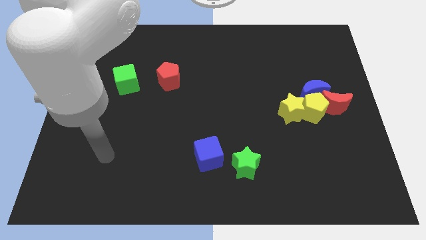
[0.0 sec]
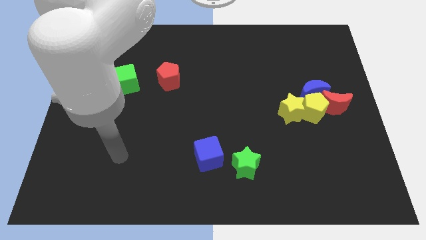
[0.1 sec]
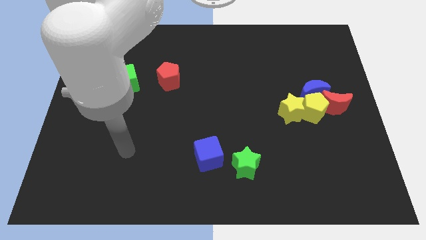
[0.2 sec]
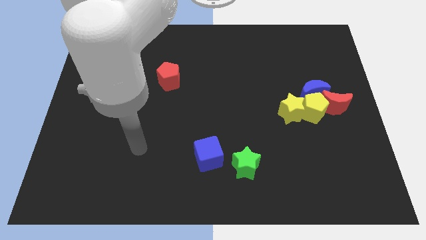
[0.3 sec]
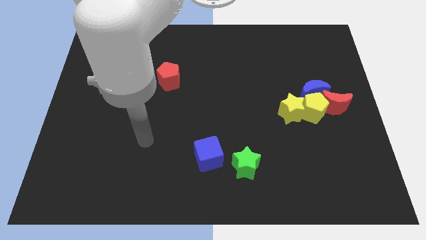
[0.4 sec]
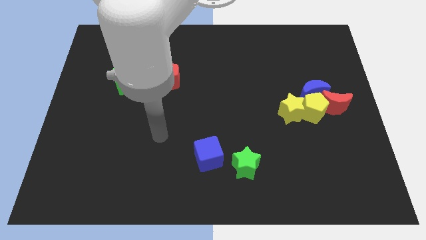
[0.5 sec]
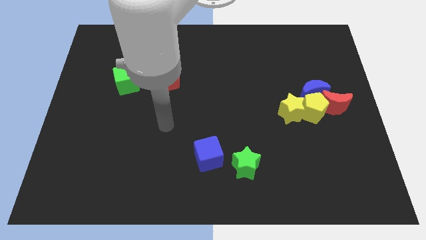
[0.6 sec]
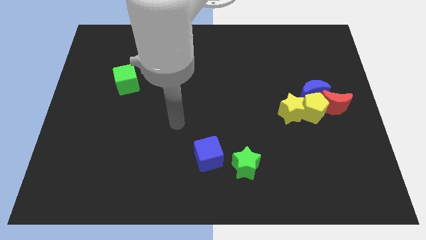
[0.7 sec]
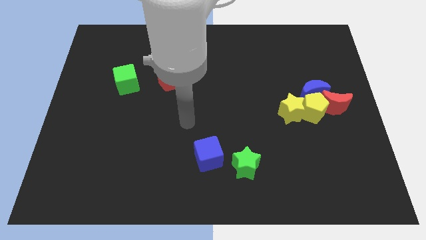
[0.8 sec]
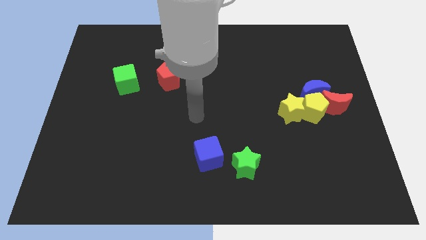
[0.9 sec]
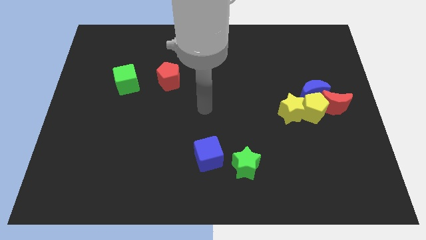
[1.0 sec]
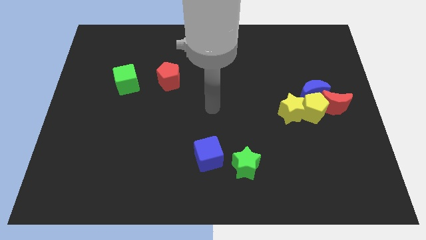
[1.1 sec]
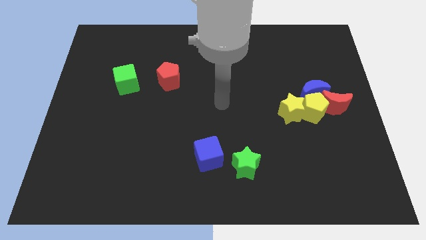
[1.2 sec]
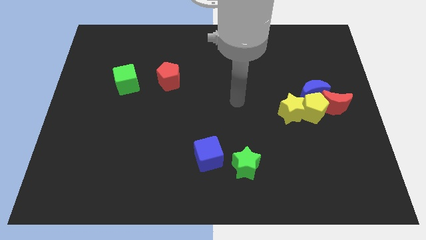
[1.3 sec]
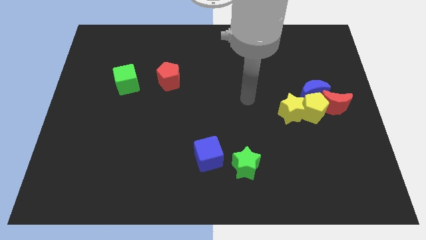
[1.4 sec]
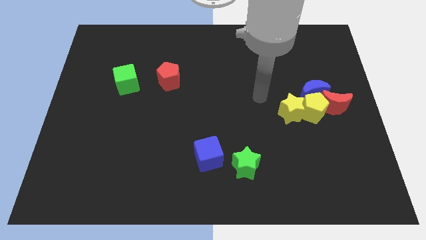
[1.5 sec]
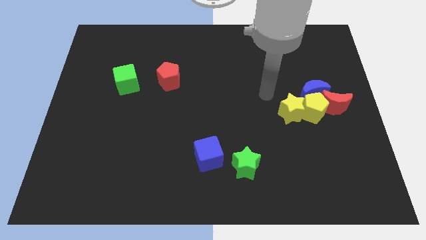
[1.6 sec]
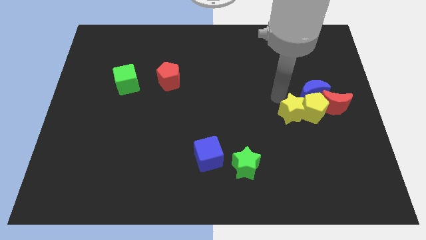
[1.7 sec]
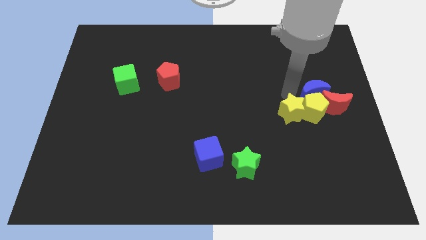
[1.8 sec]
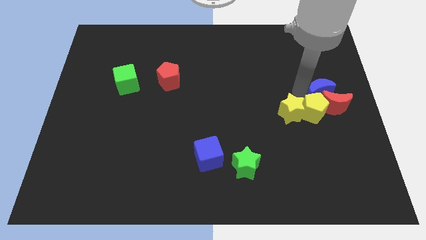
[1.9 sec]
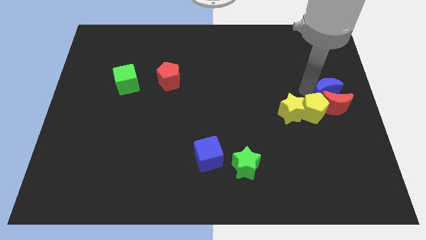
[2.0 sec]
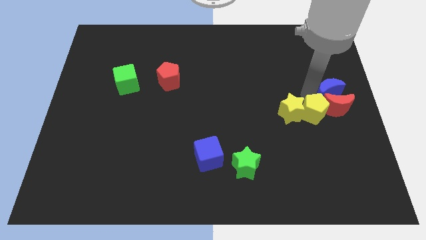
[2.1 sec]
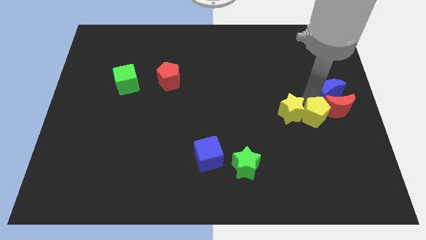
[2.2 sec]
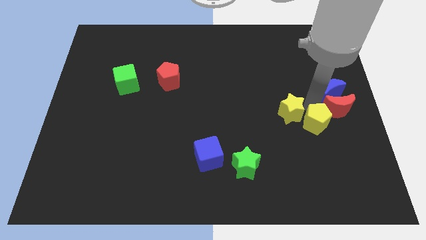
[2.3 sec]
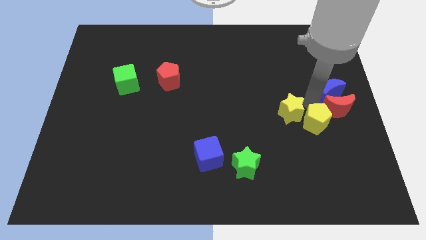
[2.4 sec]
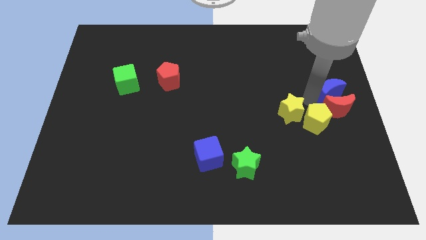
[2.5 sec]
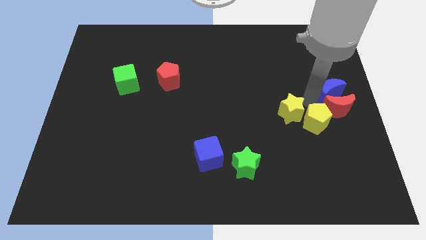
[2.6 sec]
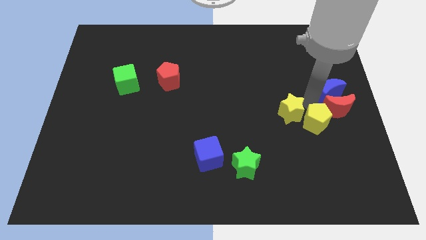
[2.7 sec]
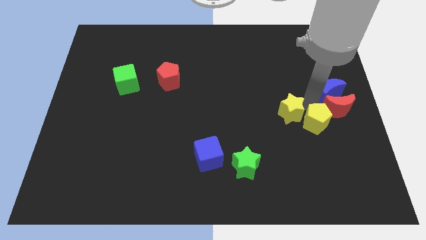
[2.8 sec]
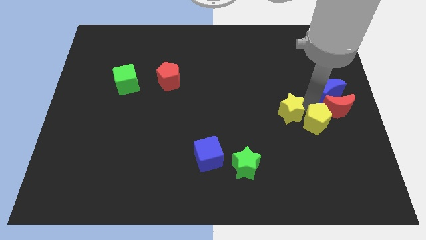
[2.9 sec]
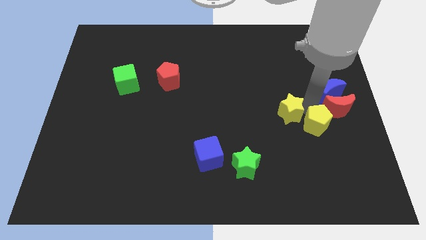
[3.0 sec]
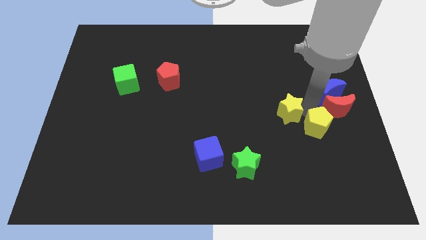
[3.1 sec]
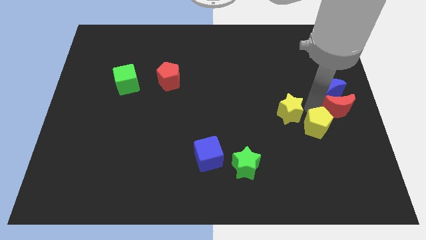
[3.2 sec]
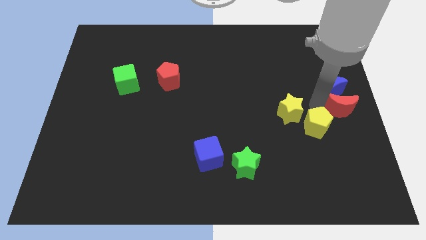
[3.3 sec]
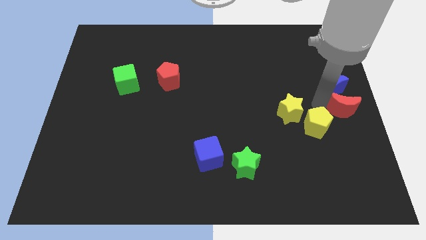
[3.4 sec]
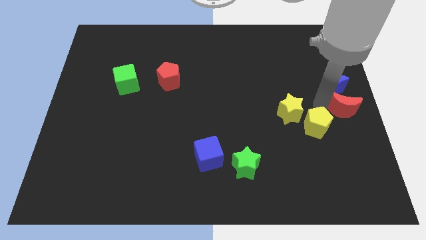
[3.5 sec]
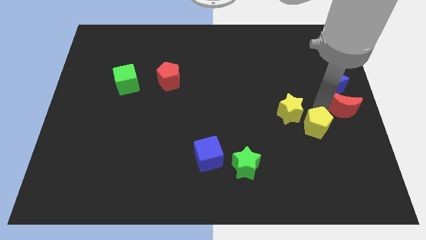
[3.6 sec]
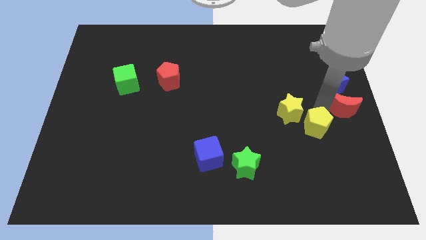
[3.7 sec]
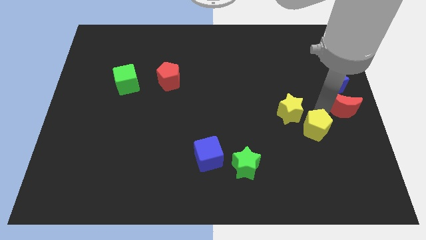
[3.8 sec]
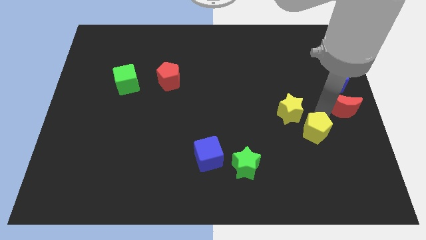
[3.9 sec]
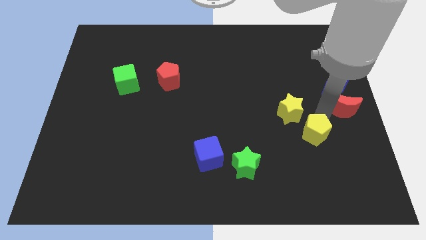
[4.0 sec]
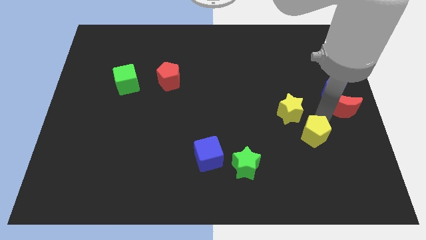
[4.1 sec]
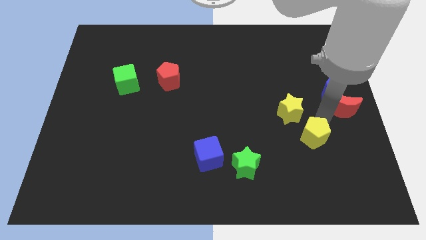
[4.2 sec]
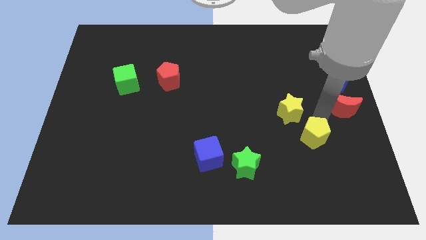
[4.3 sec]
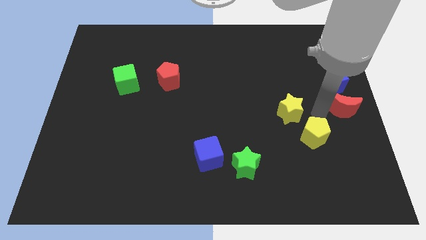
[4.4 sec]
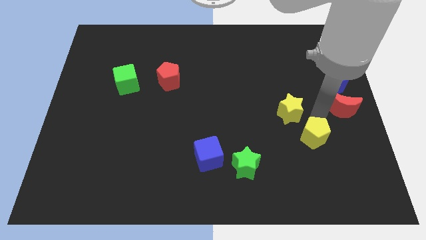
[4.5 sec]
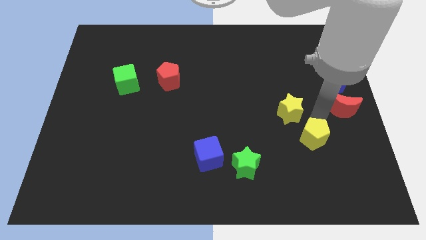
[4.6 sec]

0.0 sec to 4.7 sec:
pull the yellow pentagon apart from the clump

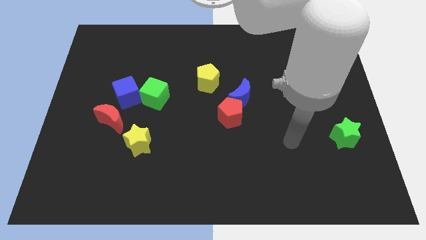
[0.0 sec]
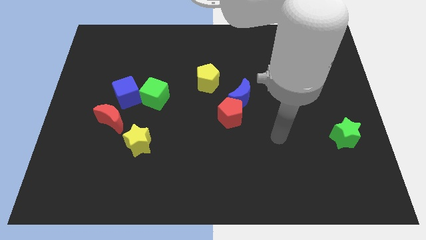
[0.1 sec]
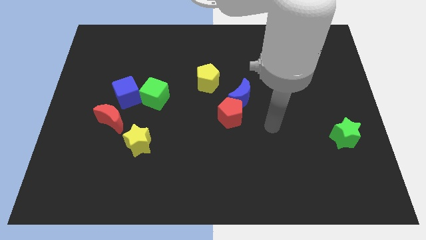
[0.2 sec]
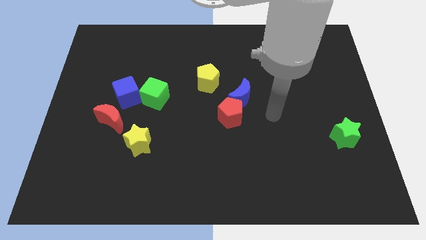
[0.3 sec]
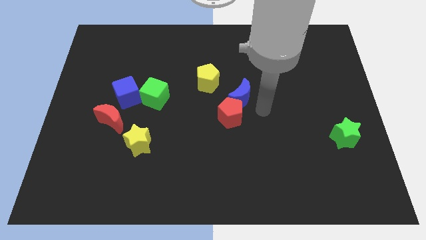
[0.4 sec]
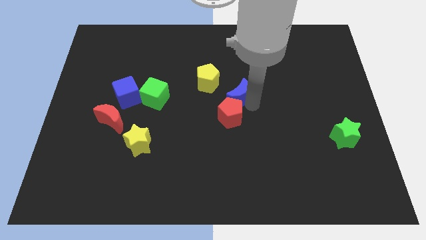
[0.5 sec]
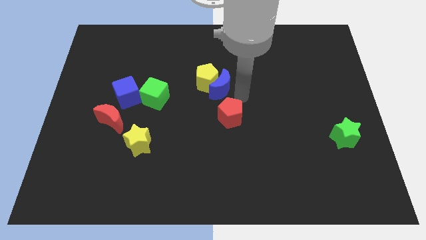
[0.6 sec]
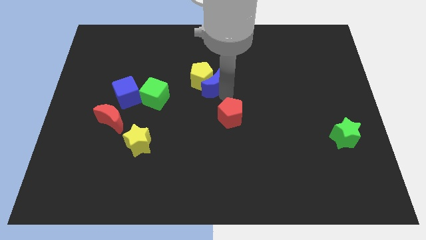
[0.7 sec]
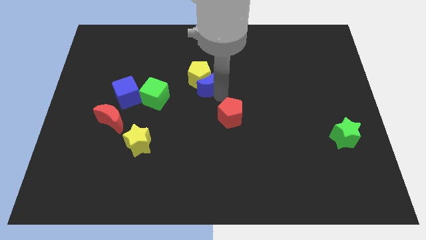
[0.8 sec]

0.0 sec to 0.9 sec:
pull the red pentagon apart from the blue moon

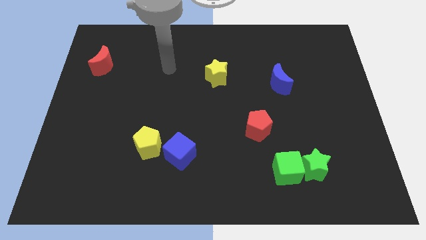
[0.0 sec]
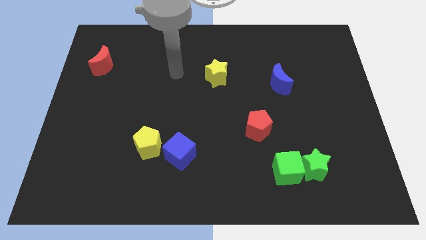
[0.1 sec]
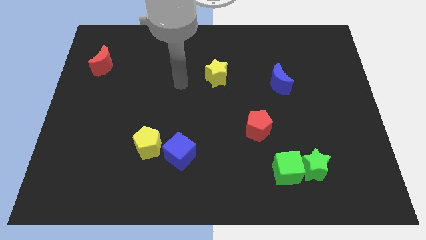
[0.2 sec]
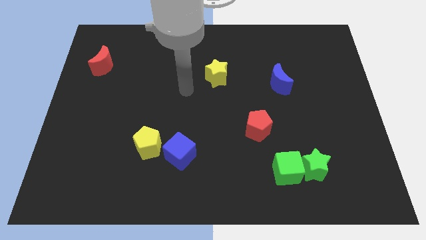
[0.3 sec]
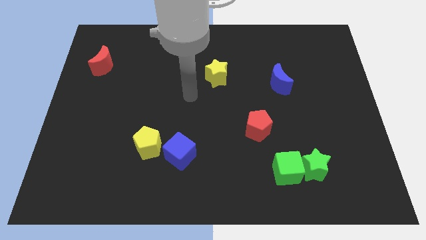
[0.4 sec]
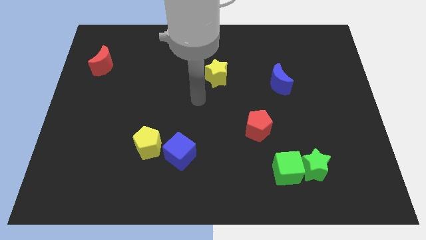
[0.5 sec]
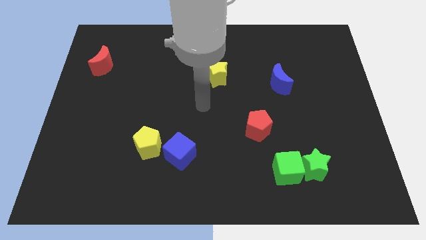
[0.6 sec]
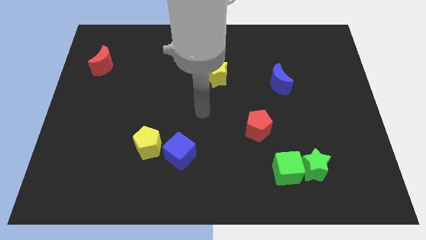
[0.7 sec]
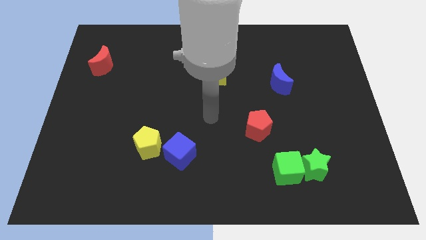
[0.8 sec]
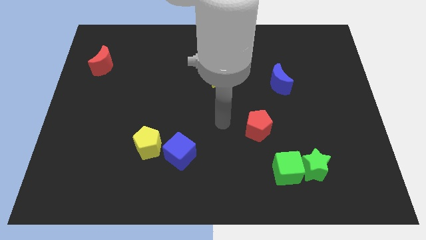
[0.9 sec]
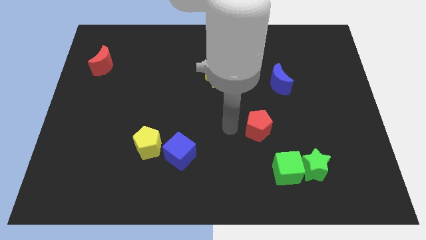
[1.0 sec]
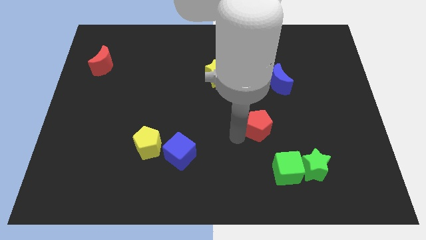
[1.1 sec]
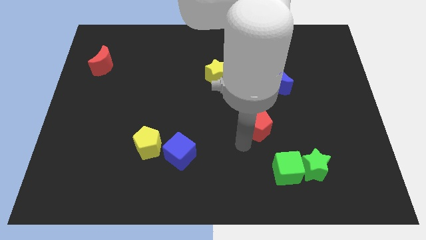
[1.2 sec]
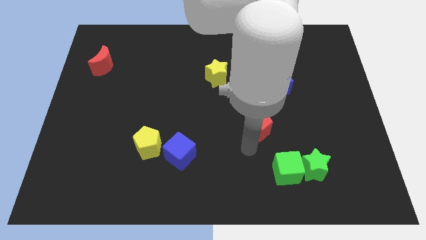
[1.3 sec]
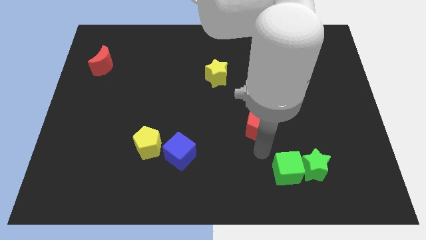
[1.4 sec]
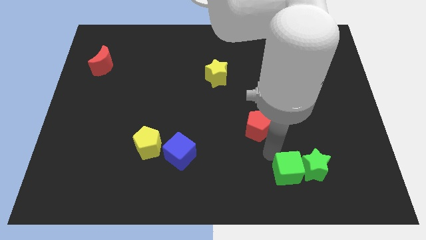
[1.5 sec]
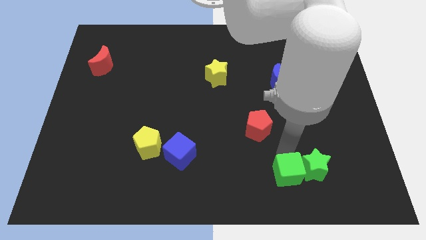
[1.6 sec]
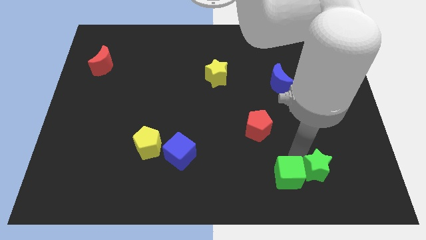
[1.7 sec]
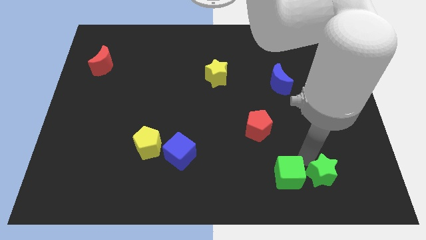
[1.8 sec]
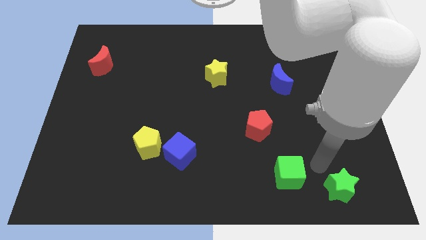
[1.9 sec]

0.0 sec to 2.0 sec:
separate the green cube from the green star

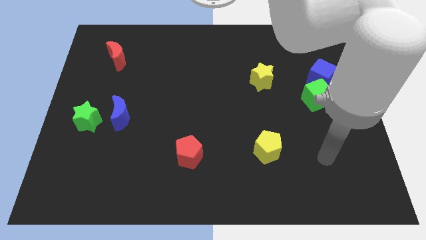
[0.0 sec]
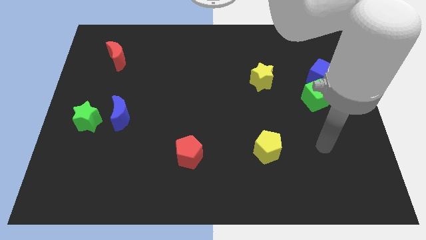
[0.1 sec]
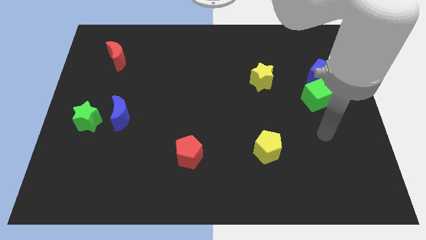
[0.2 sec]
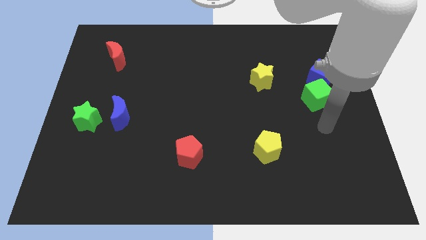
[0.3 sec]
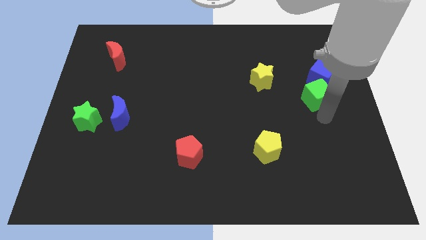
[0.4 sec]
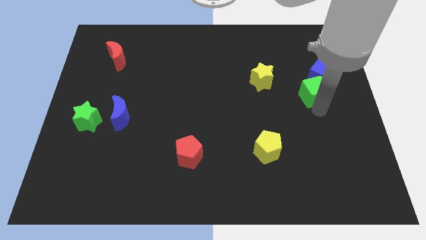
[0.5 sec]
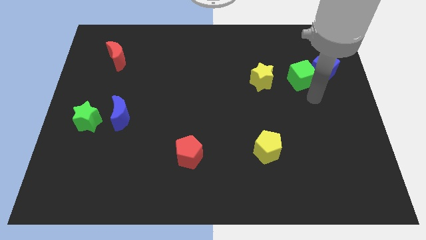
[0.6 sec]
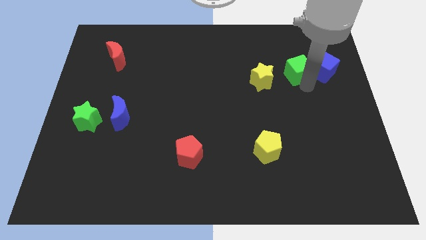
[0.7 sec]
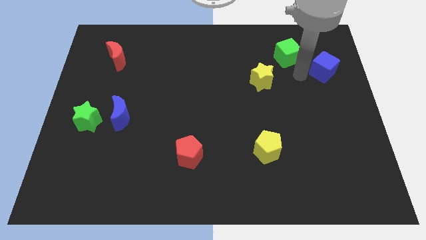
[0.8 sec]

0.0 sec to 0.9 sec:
pull the blue cube apart from the green cube

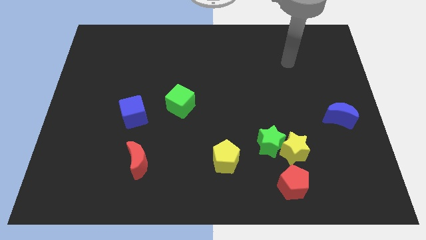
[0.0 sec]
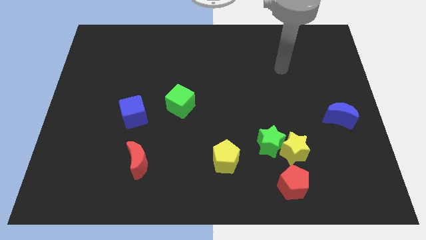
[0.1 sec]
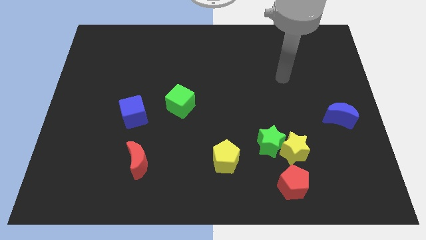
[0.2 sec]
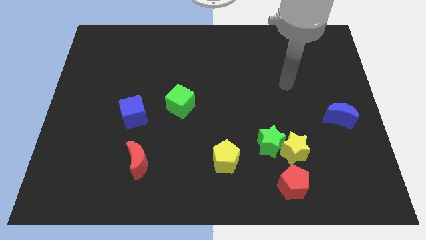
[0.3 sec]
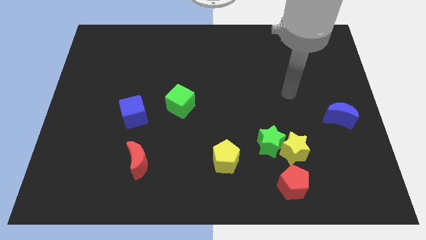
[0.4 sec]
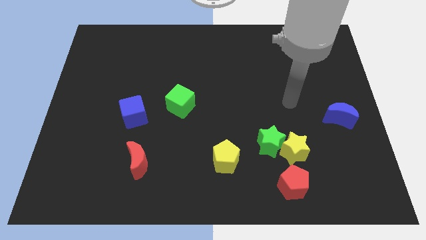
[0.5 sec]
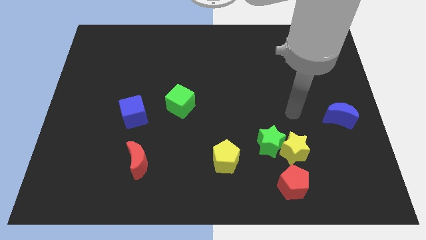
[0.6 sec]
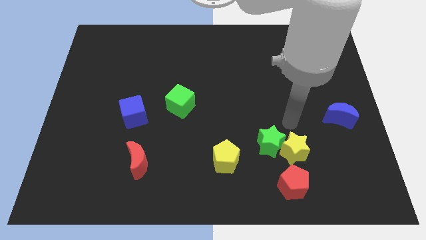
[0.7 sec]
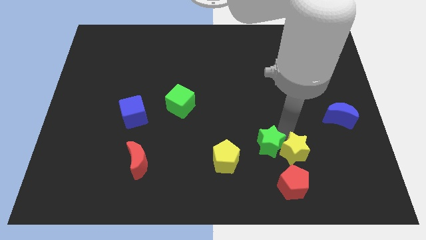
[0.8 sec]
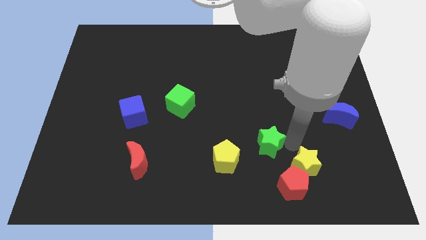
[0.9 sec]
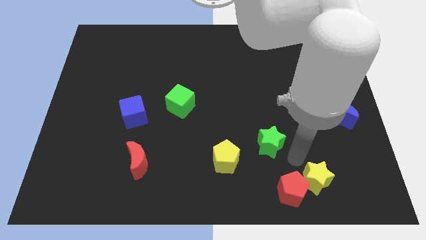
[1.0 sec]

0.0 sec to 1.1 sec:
pull the green star apart from the yellow star
